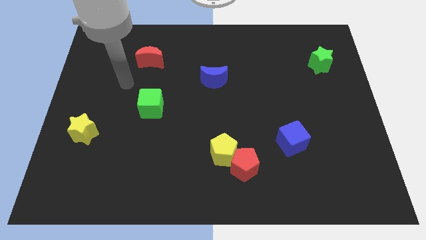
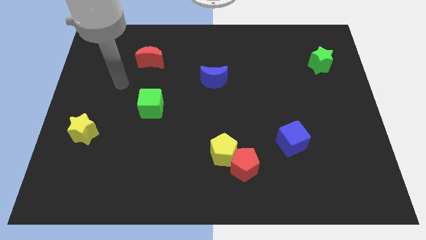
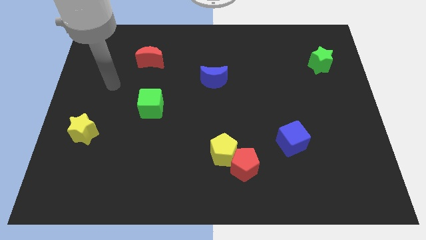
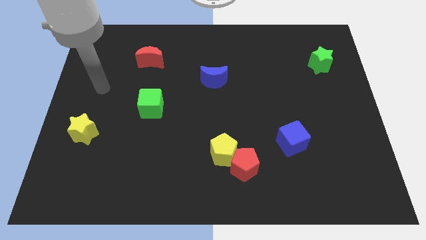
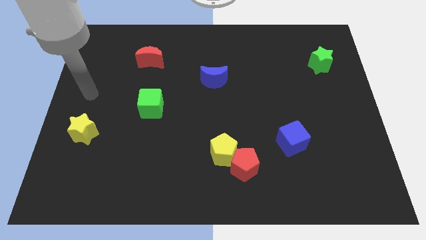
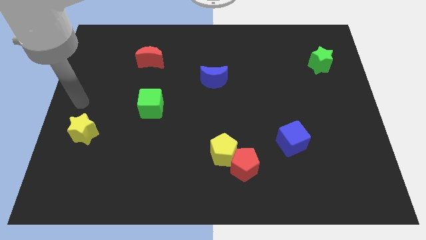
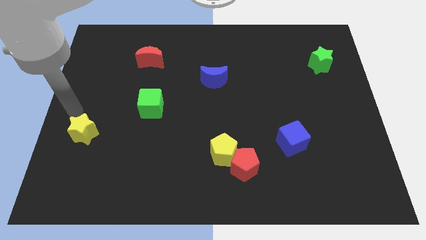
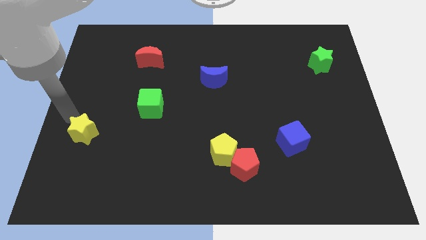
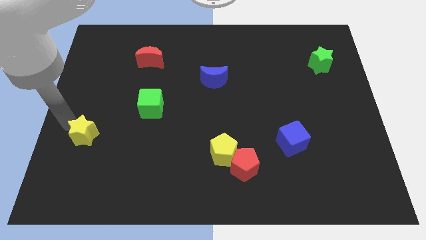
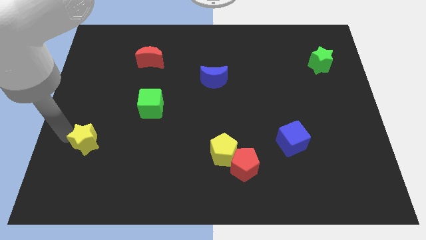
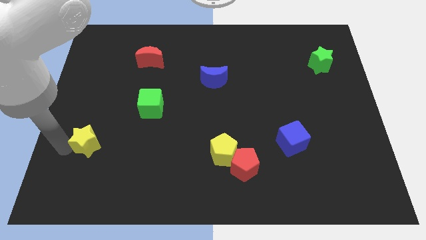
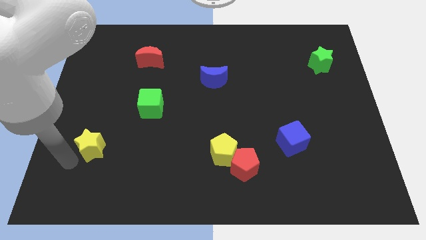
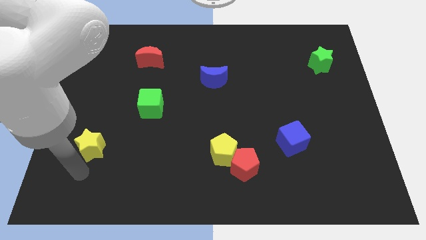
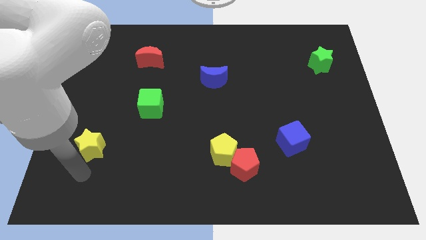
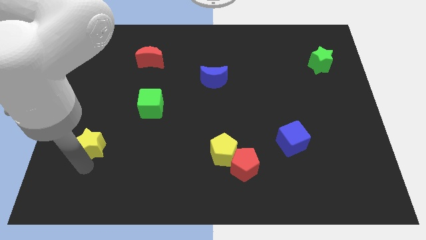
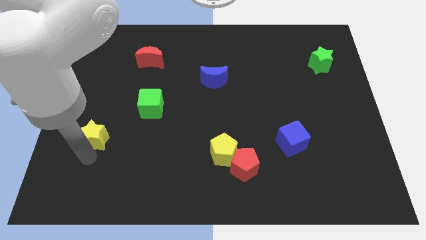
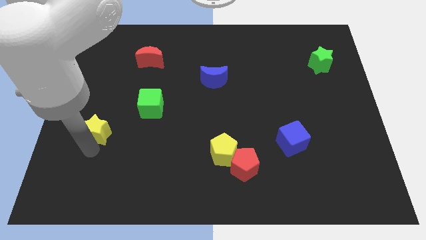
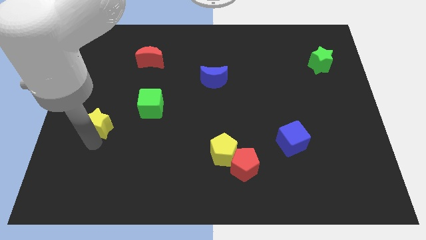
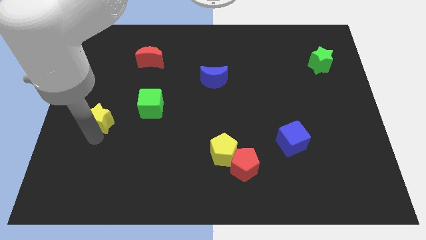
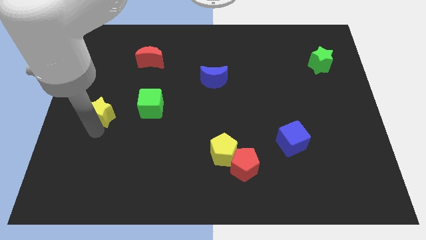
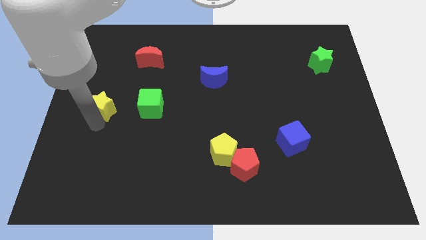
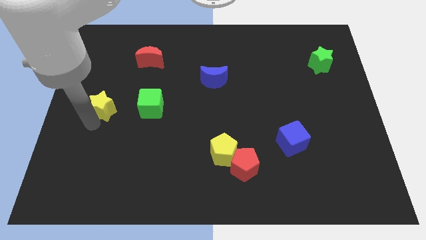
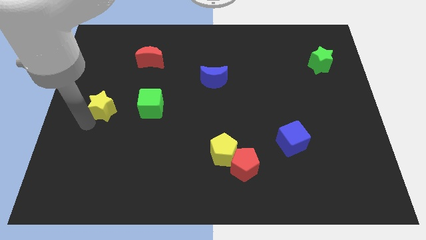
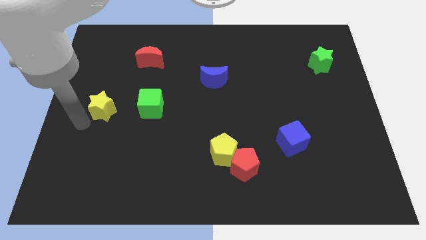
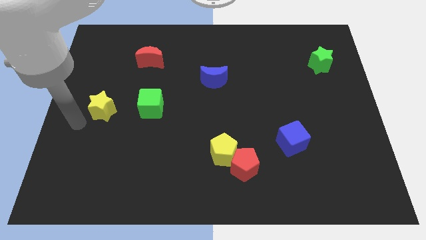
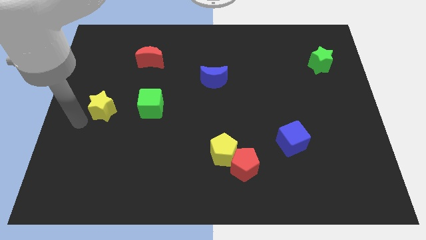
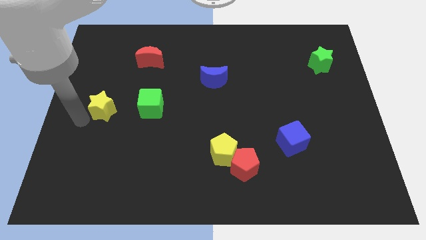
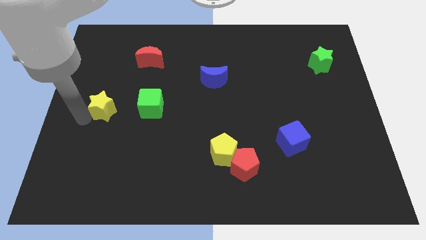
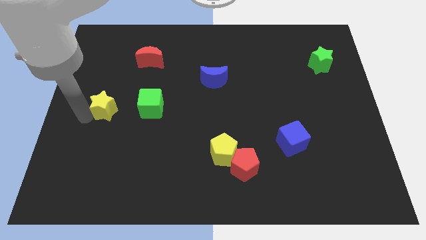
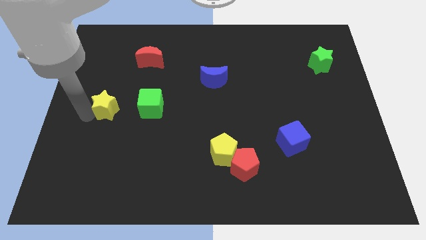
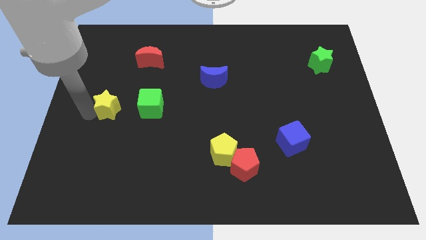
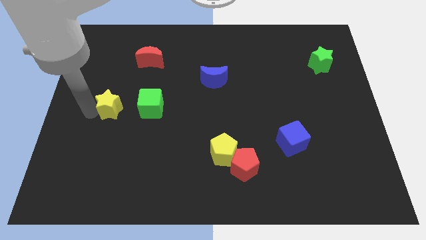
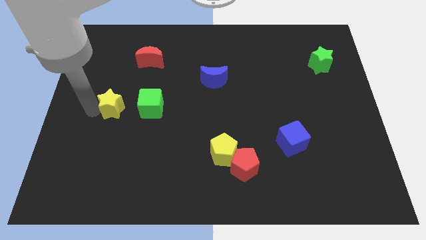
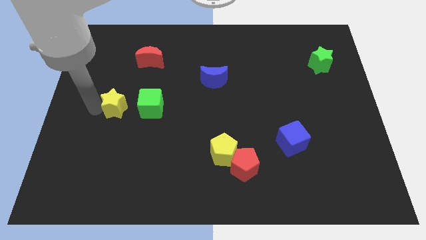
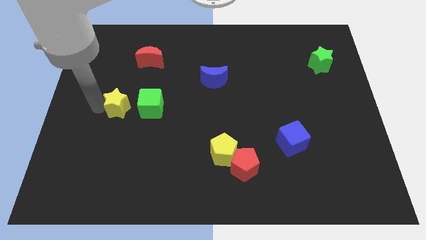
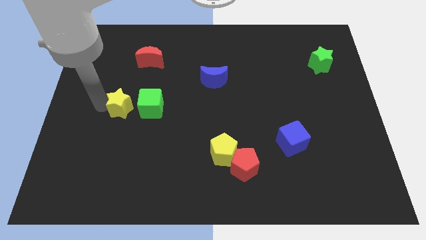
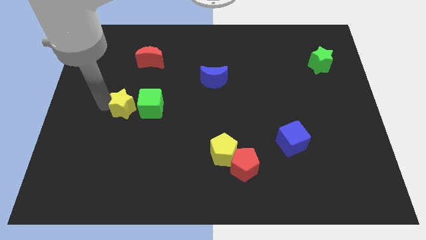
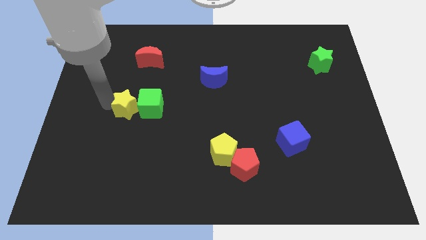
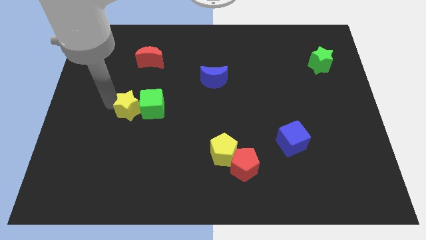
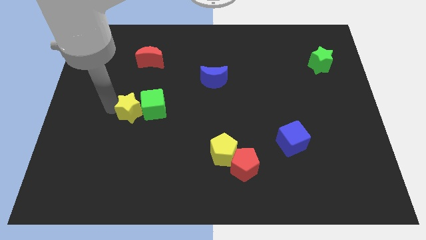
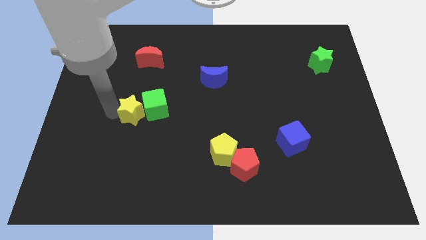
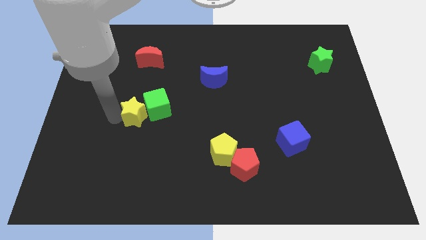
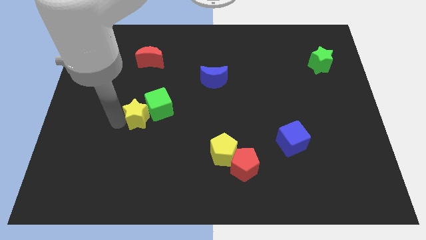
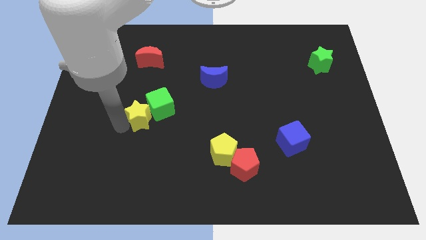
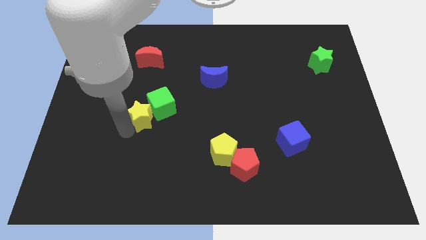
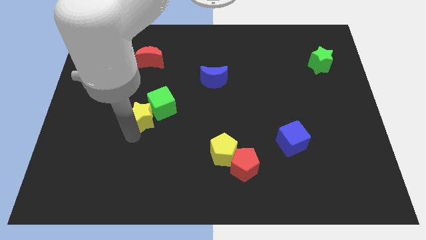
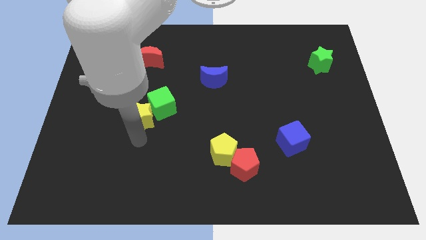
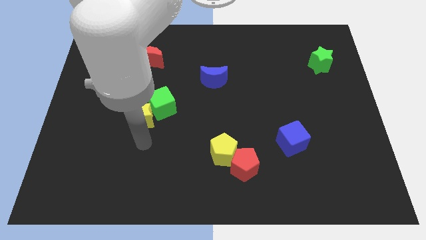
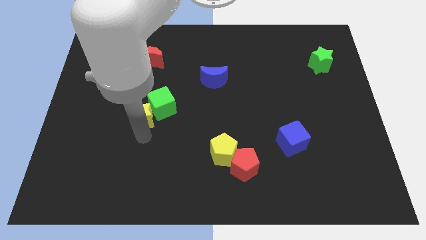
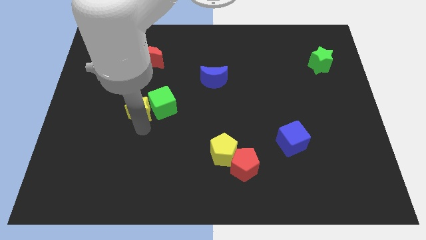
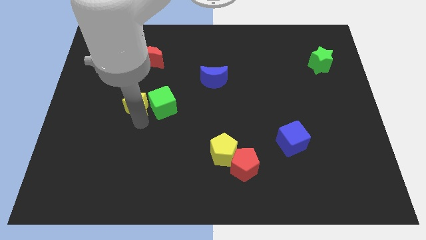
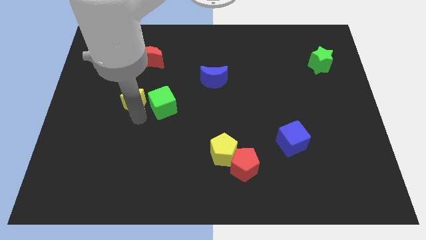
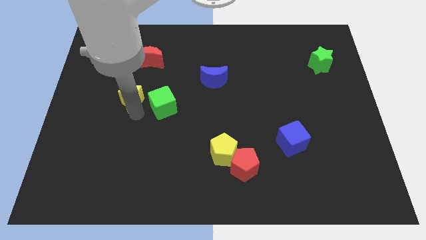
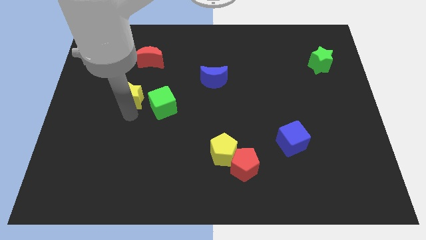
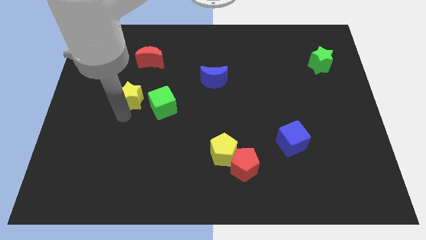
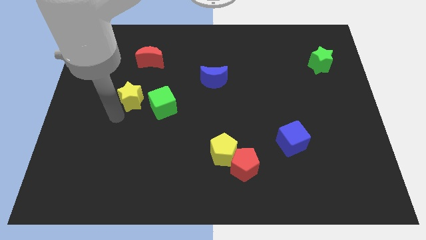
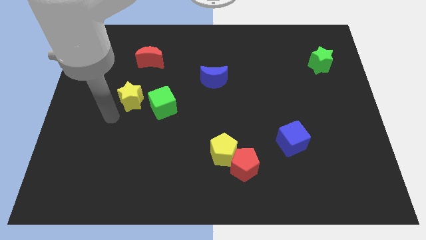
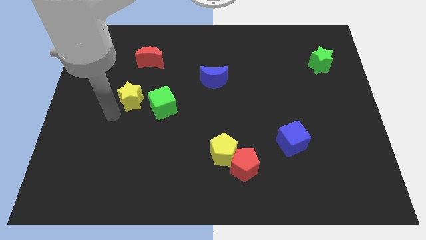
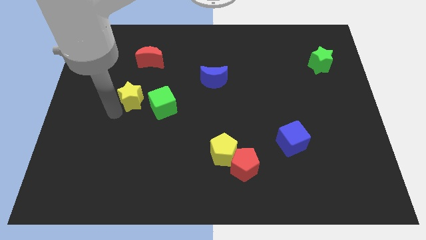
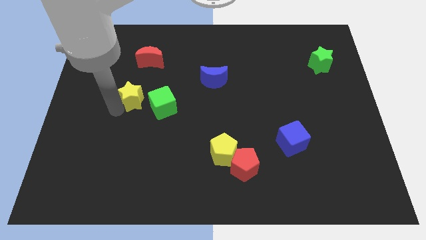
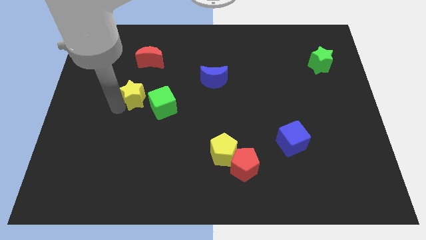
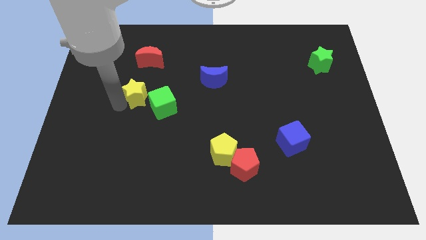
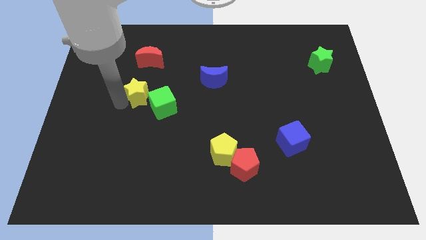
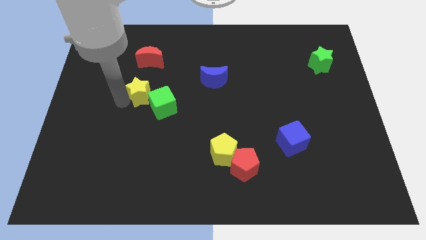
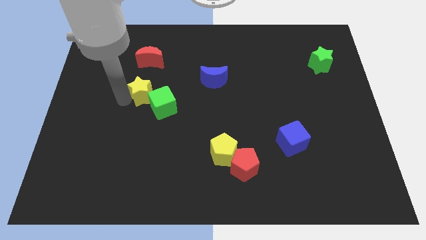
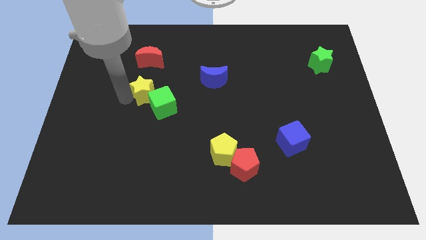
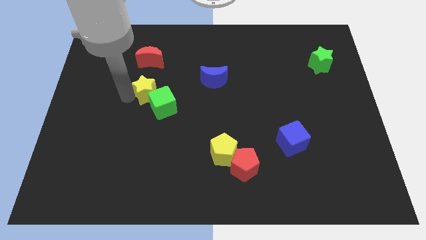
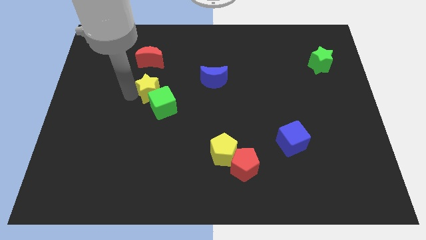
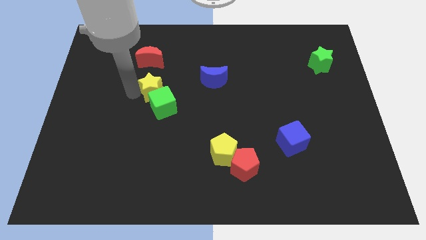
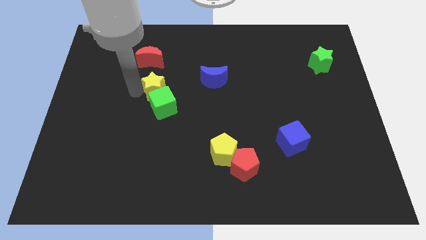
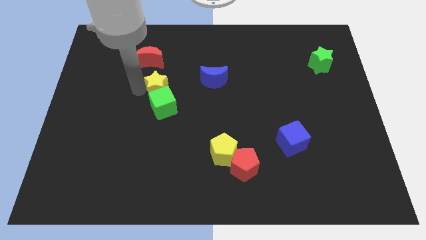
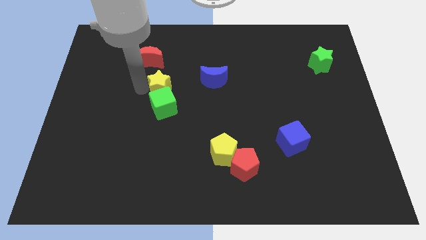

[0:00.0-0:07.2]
push the yellow star up and to the right

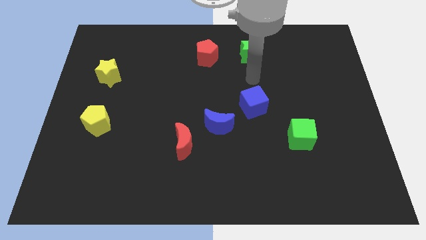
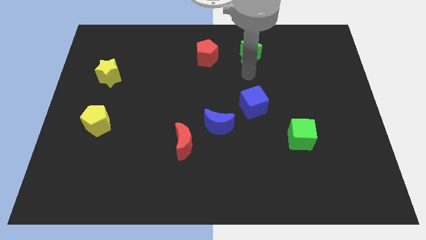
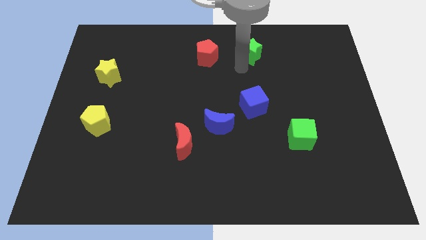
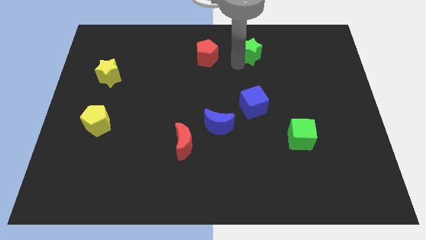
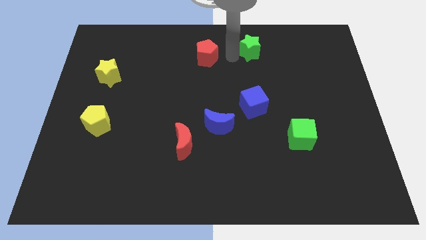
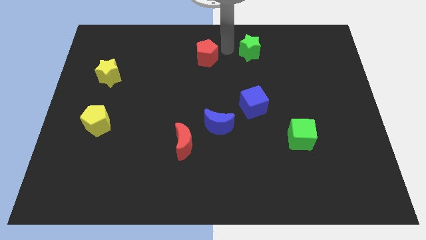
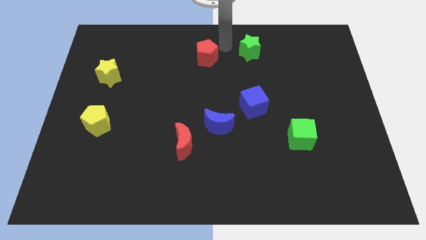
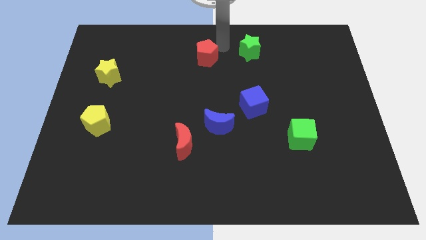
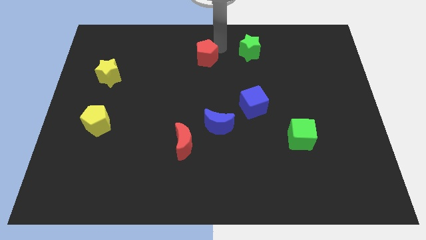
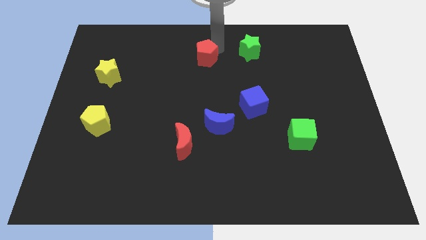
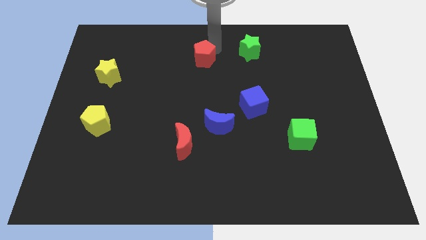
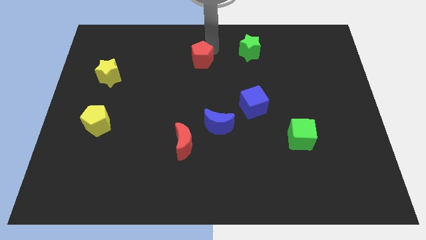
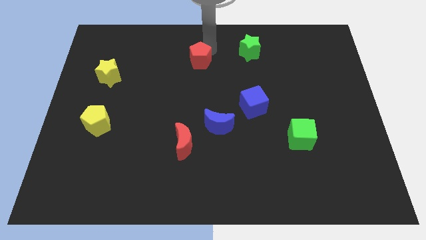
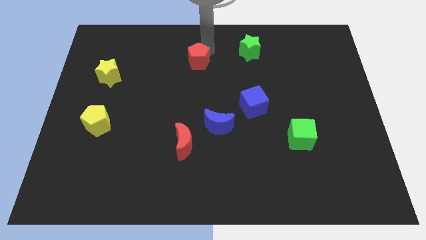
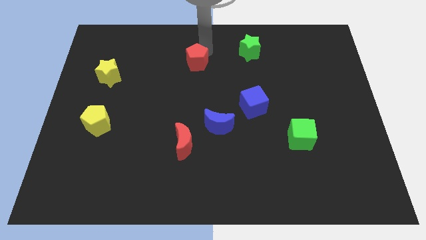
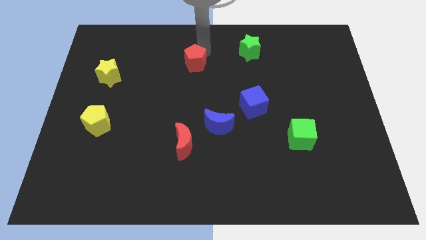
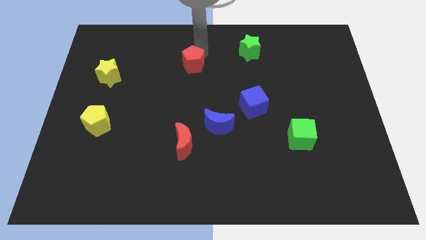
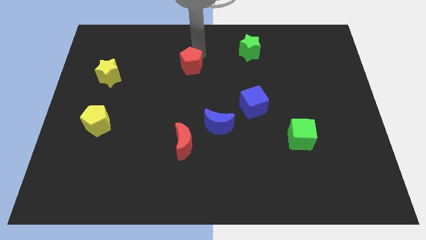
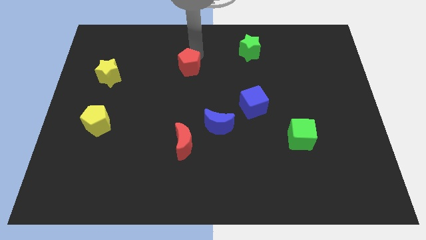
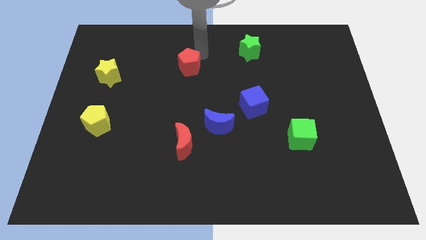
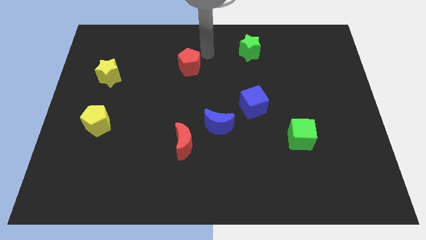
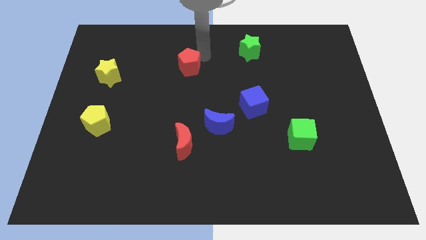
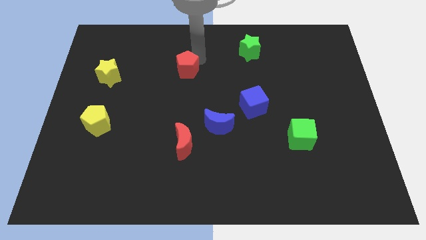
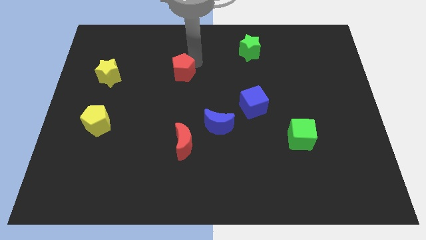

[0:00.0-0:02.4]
push the red pentagon downwards and left a little bit
